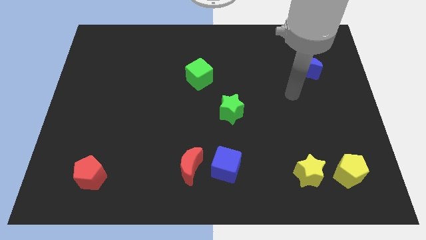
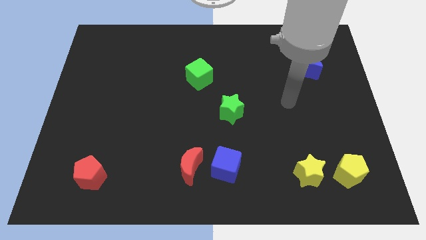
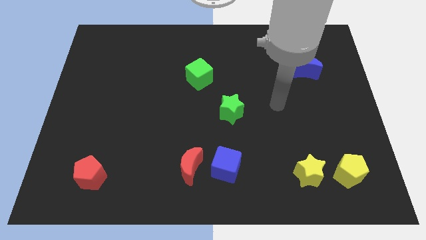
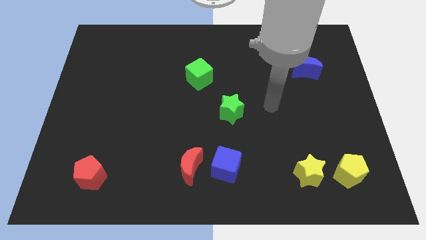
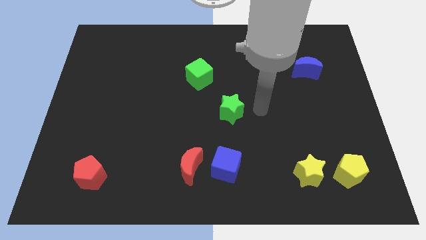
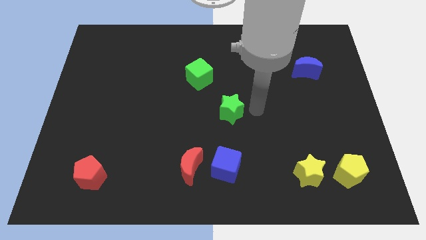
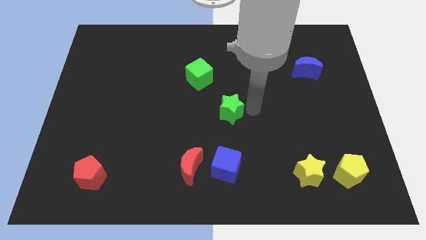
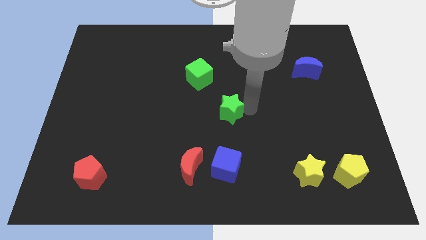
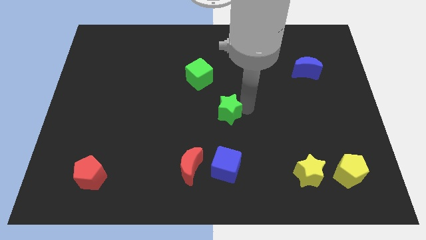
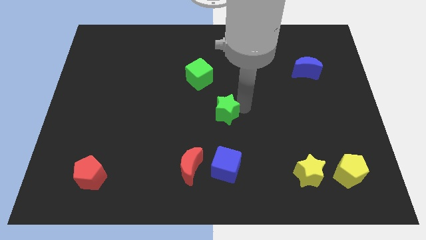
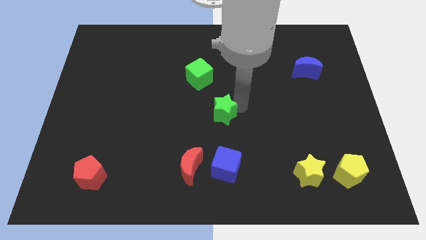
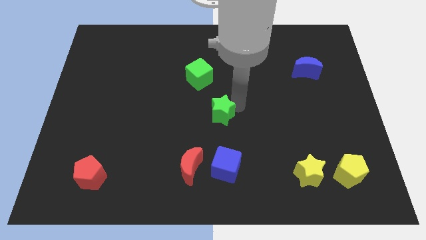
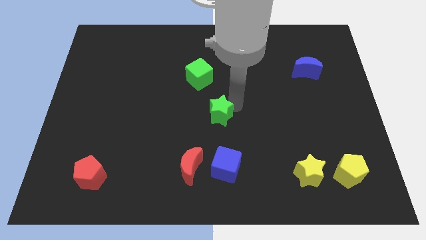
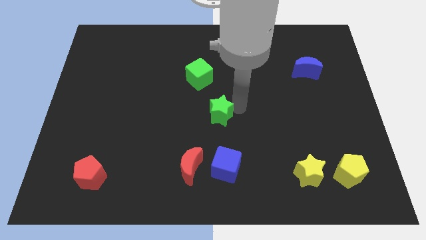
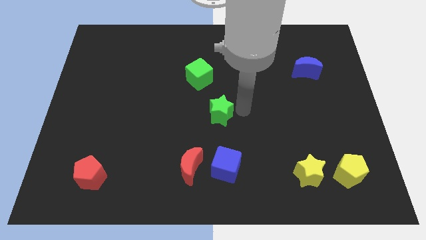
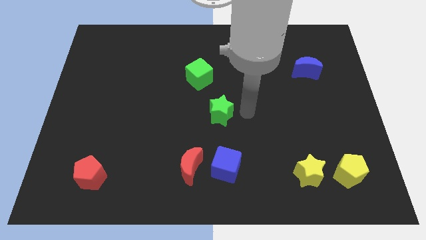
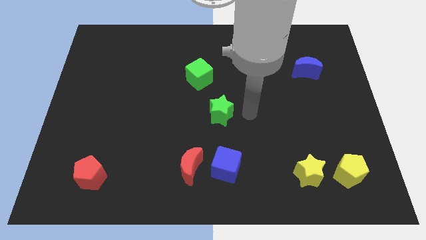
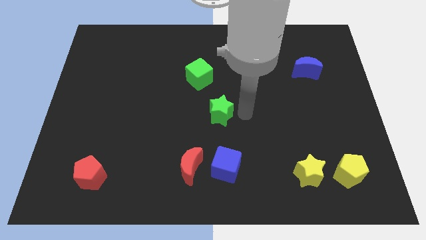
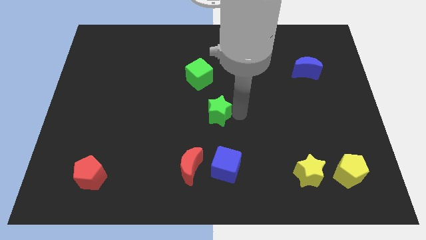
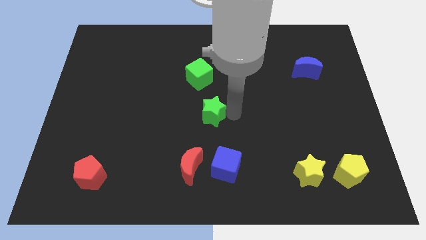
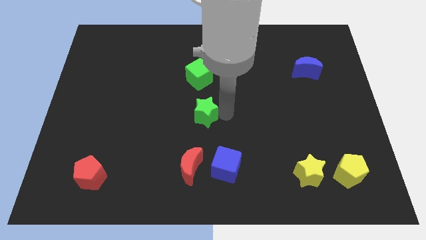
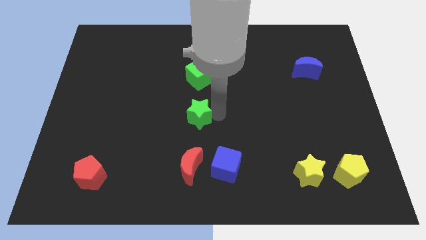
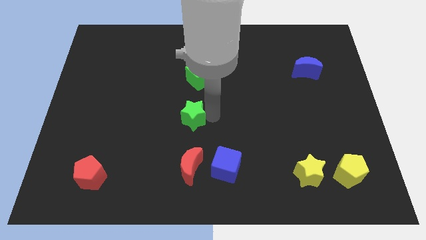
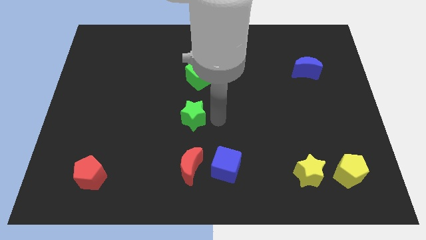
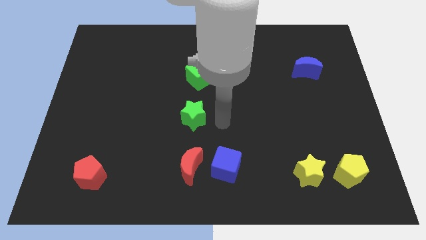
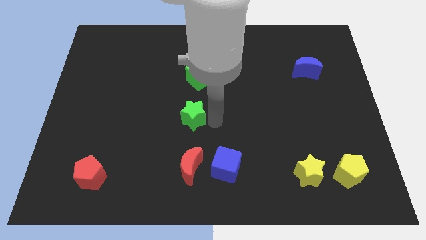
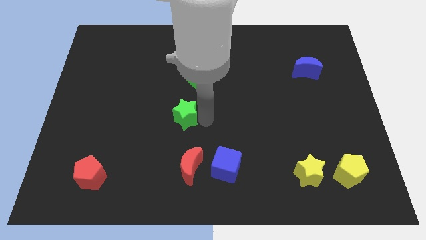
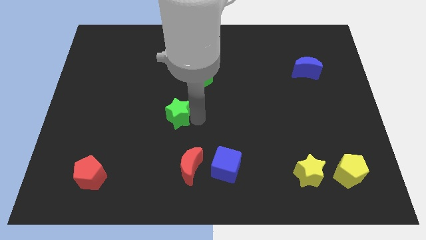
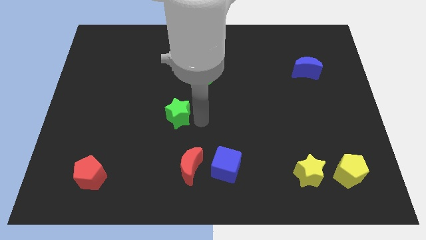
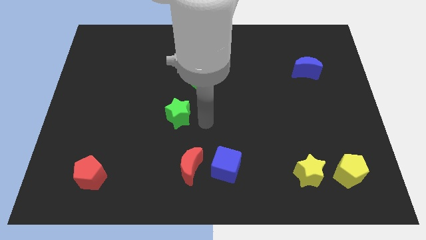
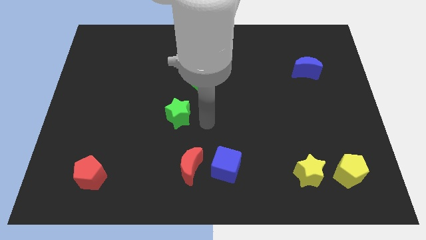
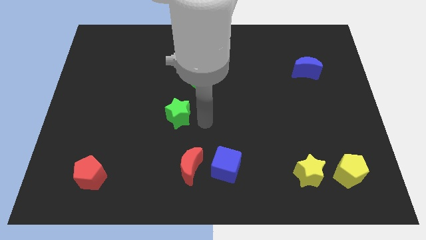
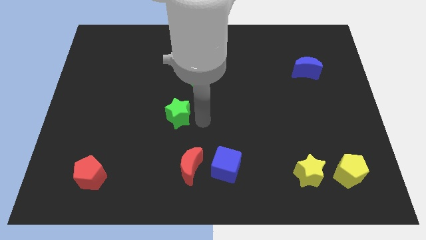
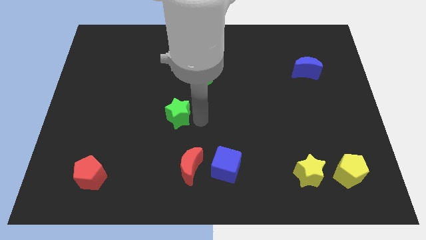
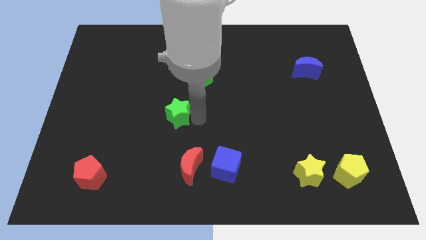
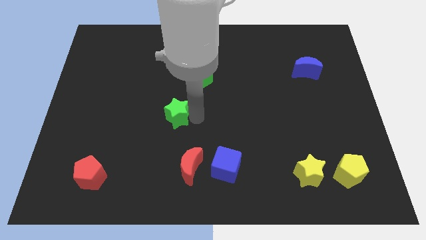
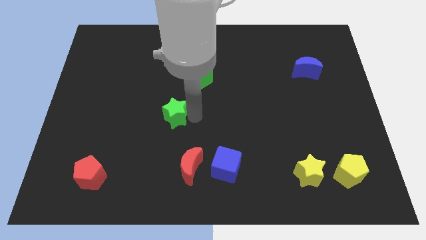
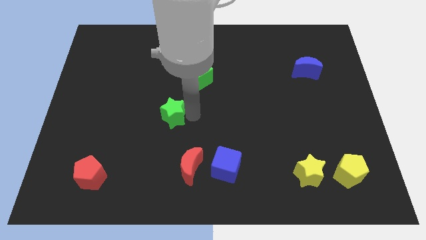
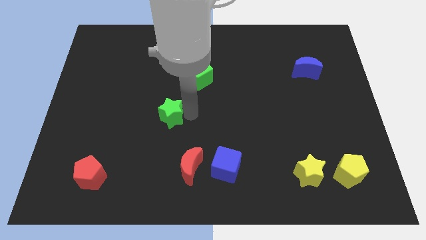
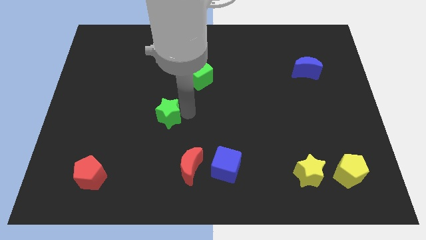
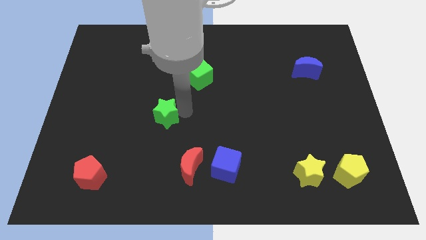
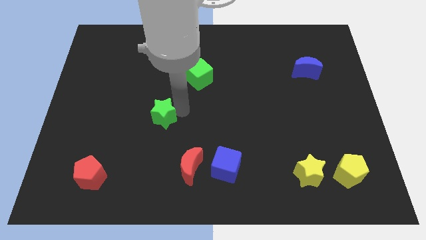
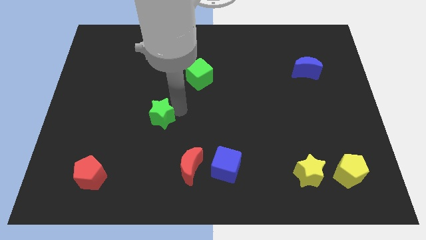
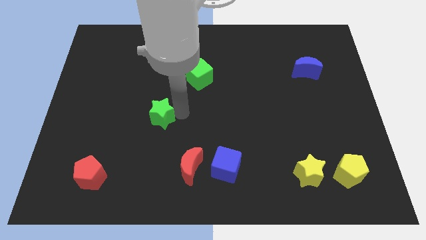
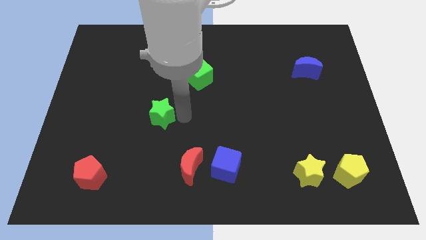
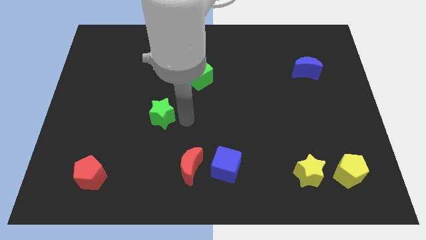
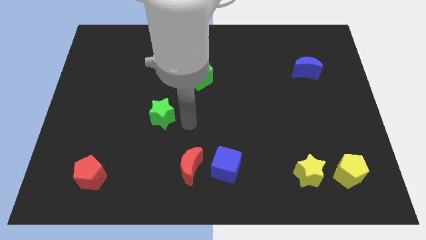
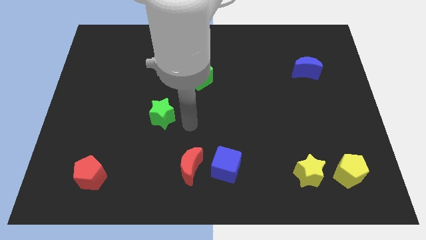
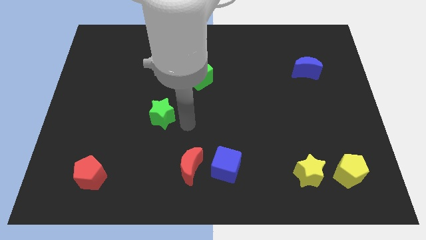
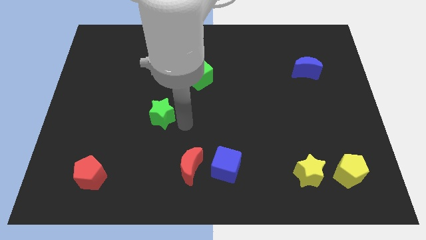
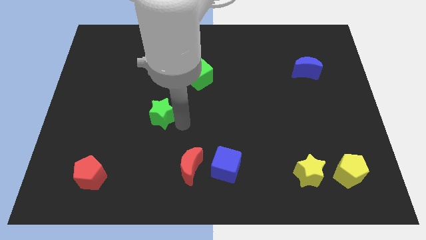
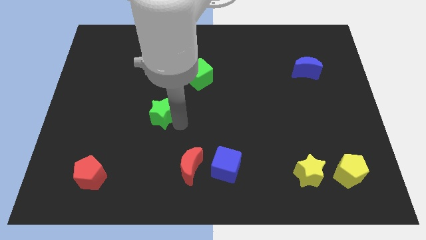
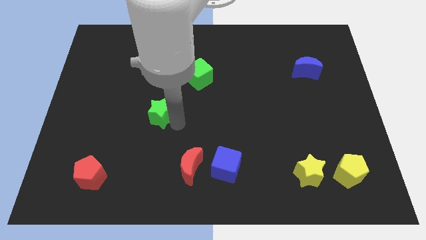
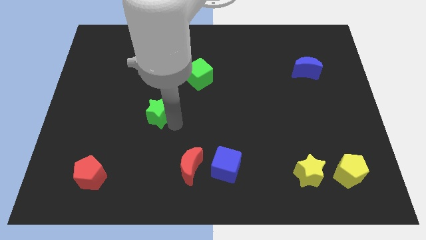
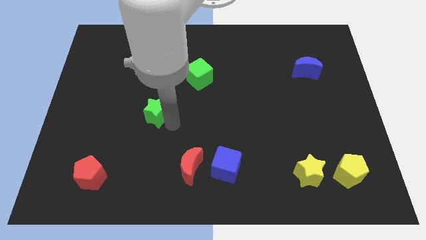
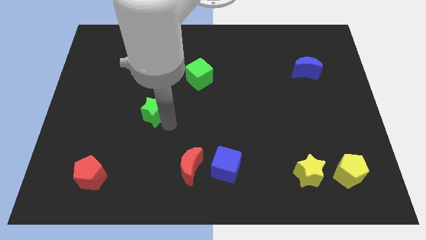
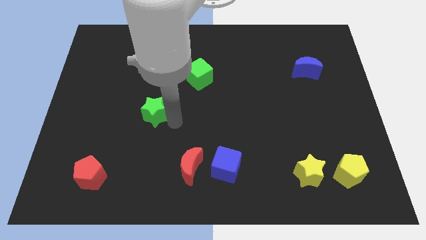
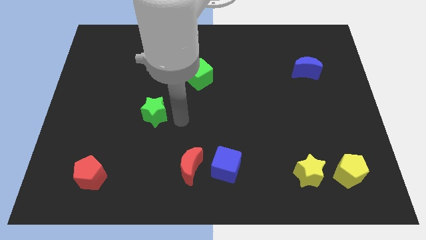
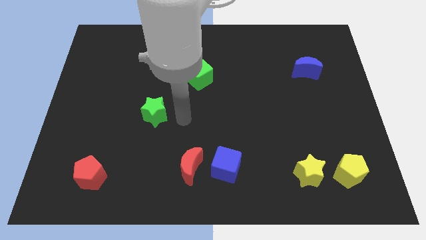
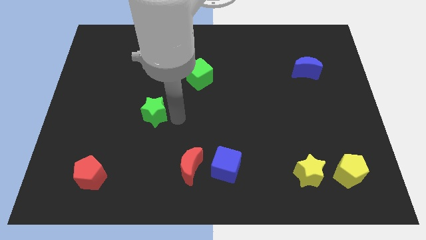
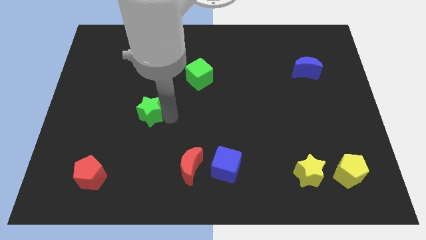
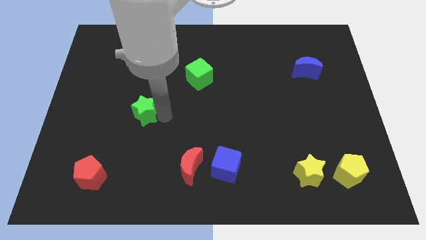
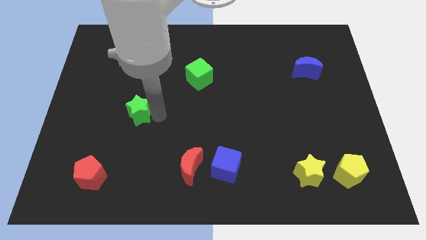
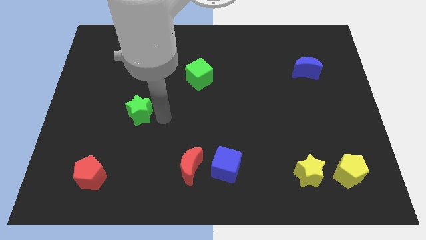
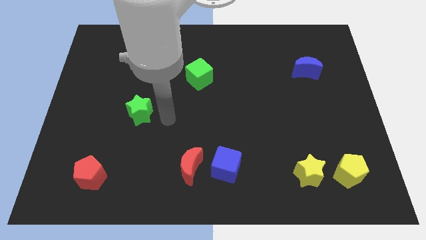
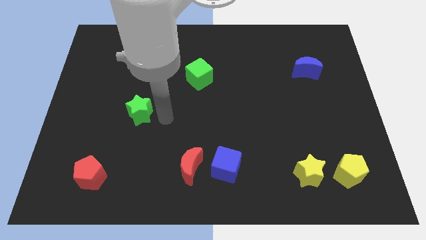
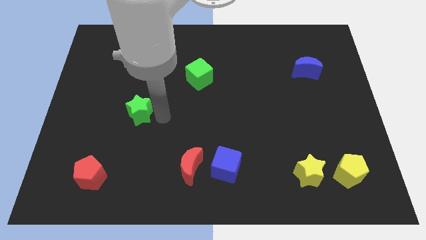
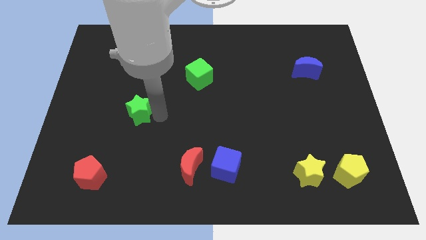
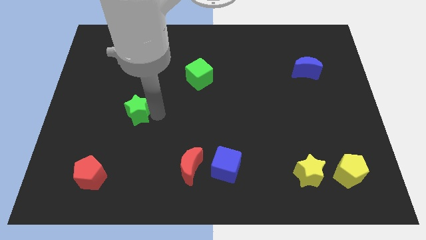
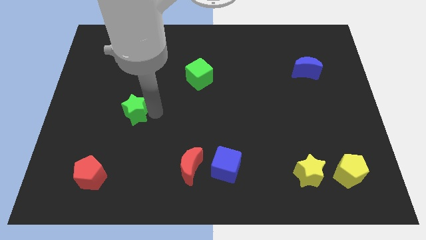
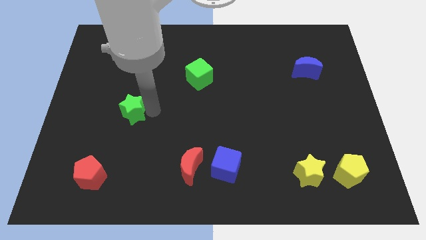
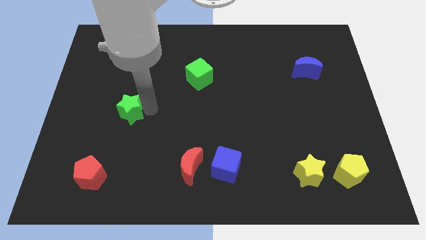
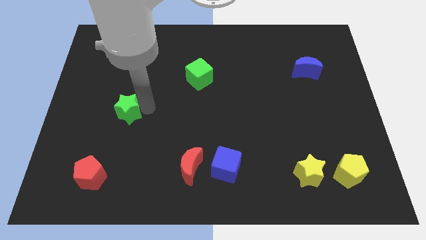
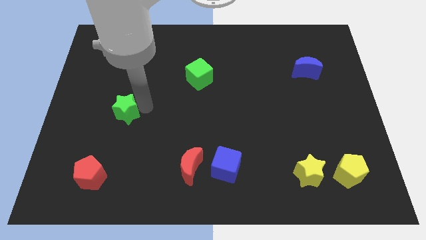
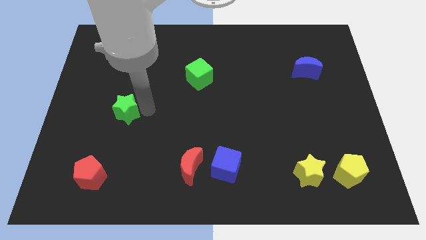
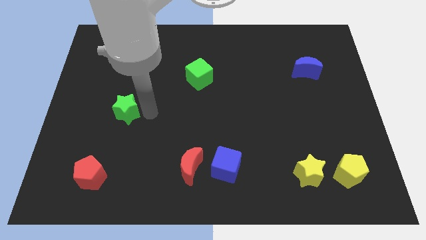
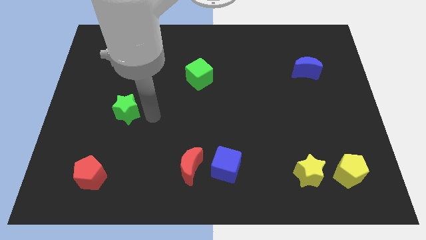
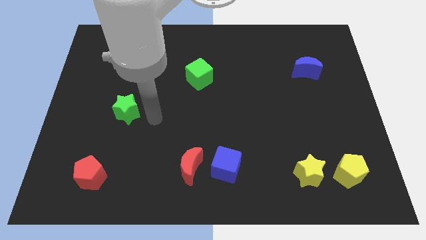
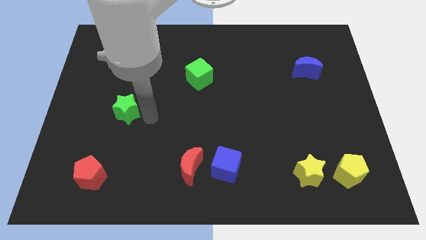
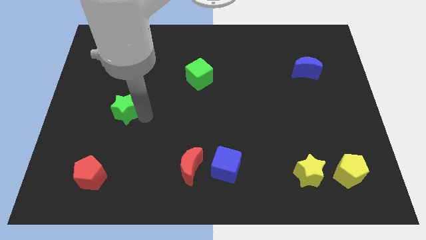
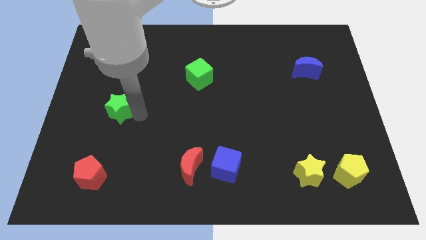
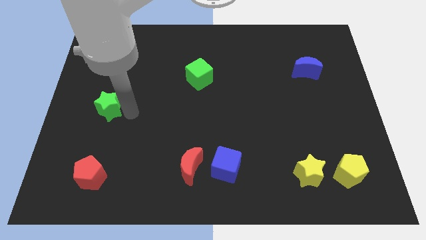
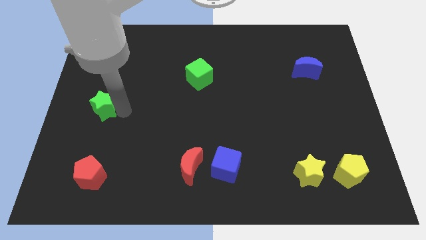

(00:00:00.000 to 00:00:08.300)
push the green star to the center left
